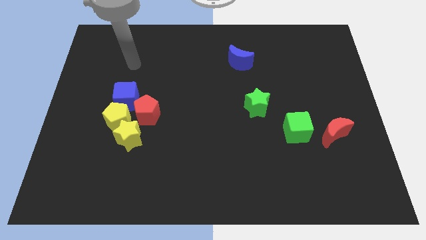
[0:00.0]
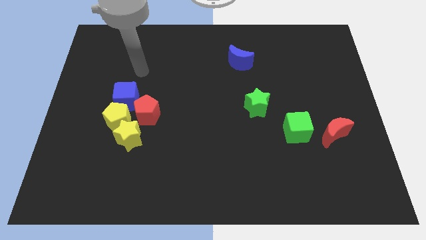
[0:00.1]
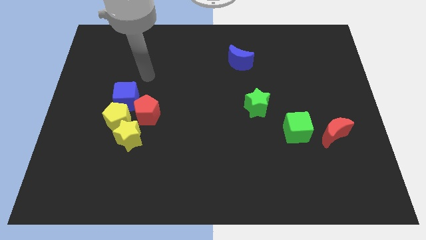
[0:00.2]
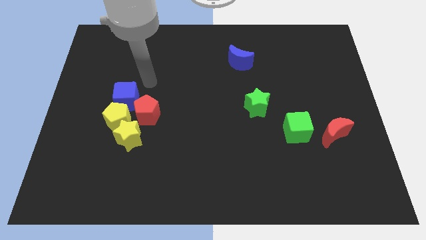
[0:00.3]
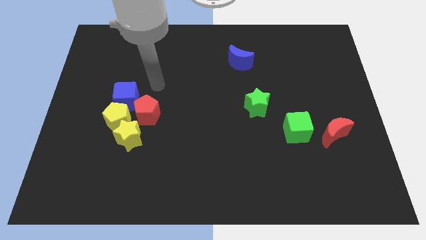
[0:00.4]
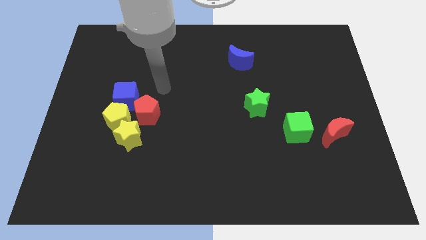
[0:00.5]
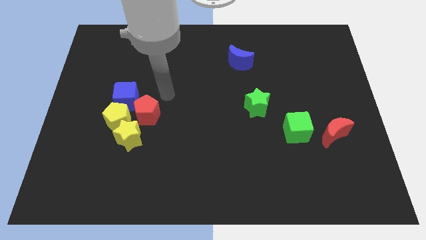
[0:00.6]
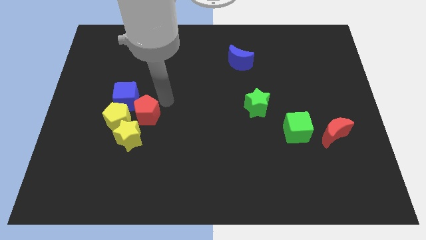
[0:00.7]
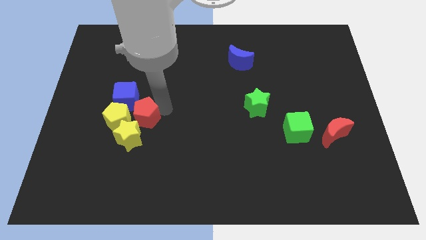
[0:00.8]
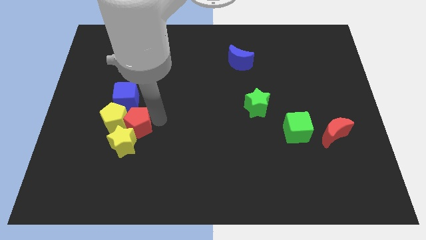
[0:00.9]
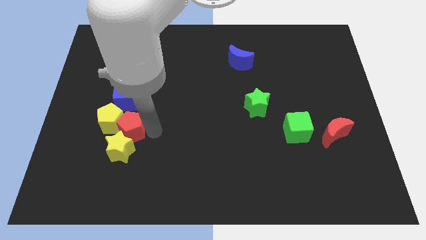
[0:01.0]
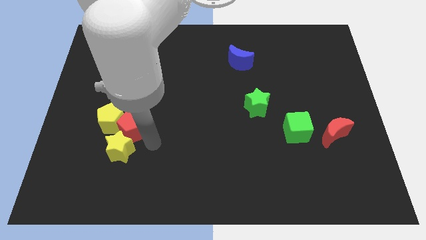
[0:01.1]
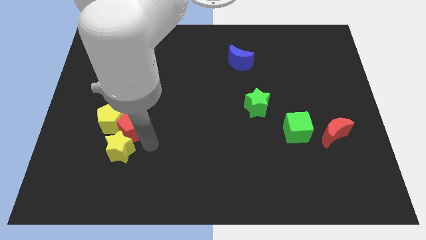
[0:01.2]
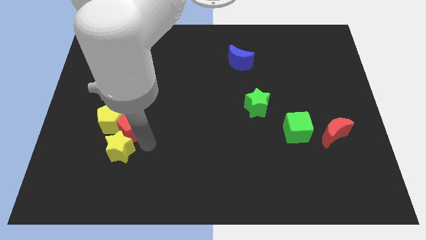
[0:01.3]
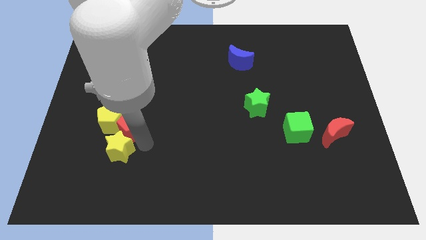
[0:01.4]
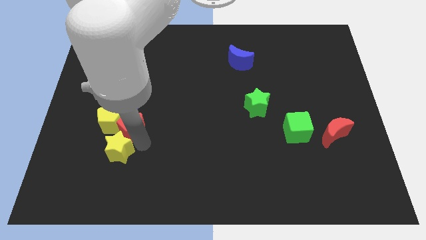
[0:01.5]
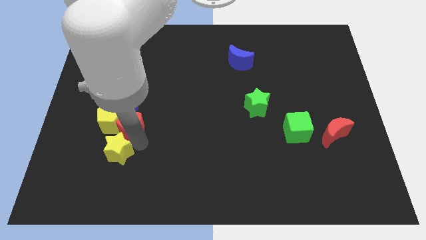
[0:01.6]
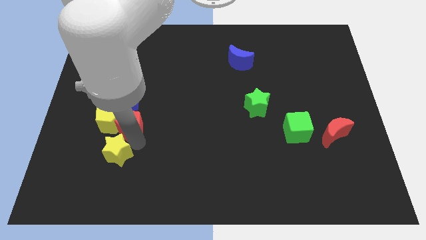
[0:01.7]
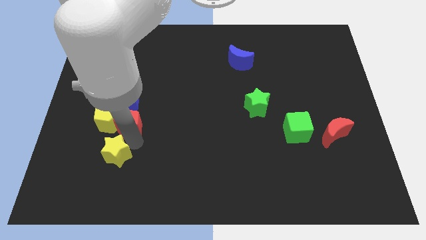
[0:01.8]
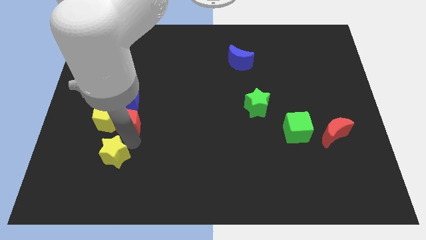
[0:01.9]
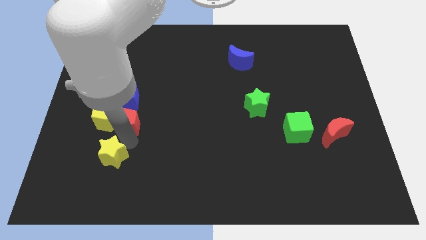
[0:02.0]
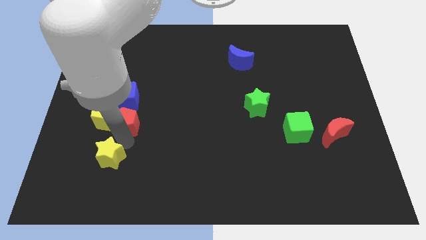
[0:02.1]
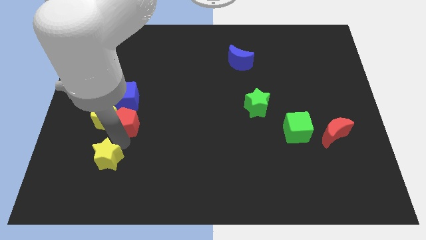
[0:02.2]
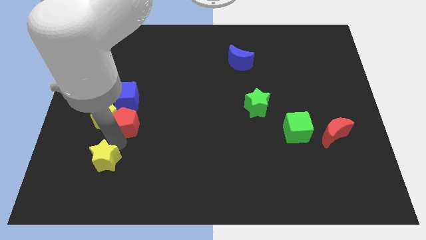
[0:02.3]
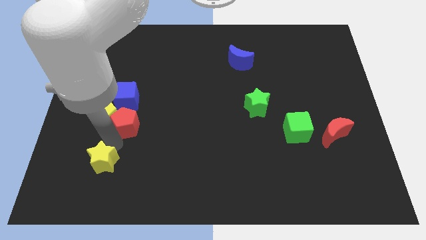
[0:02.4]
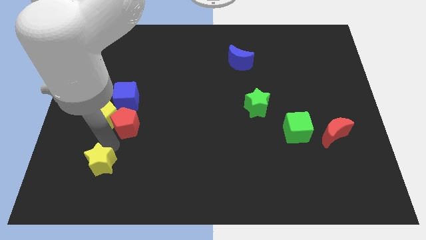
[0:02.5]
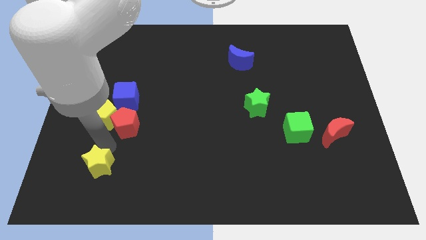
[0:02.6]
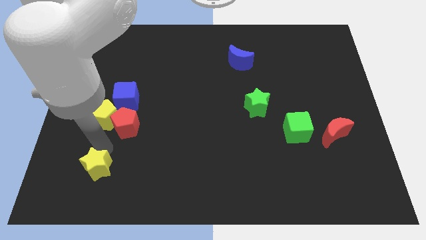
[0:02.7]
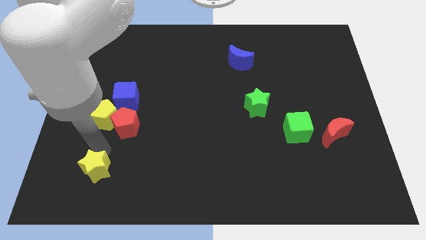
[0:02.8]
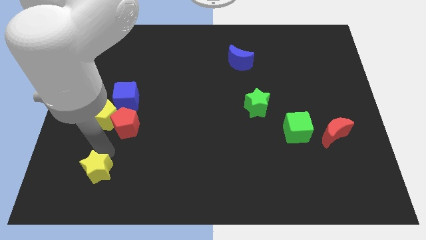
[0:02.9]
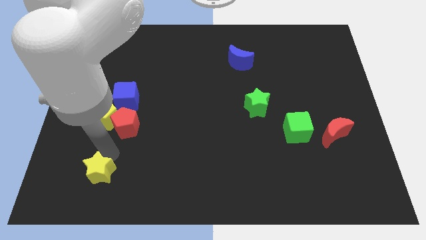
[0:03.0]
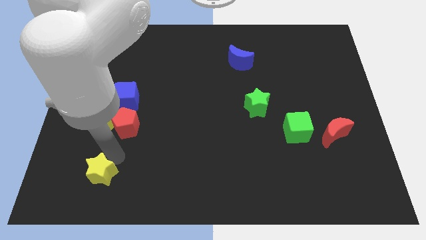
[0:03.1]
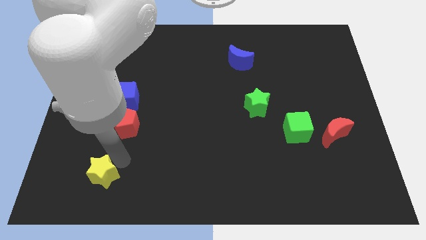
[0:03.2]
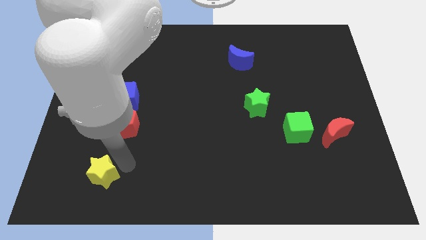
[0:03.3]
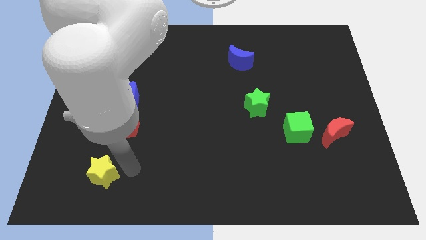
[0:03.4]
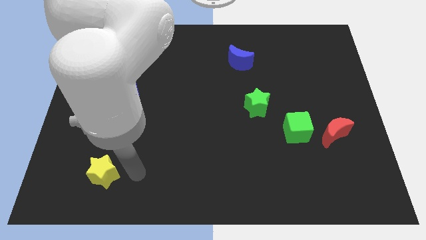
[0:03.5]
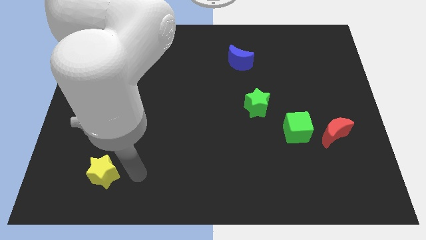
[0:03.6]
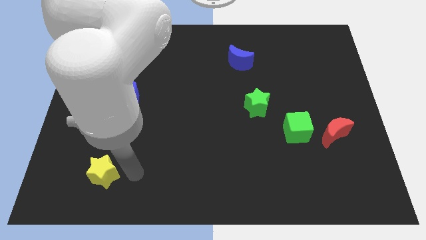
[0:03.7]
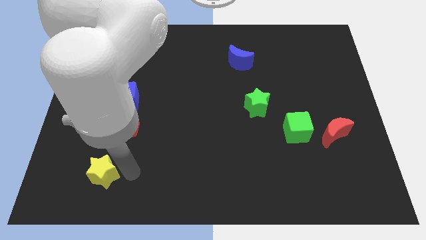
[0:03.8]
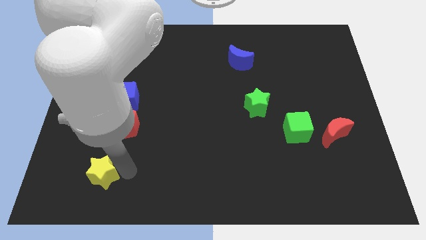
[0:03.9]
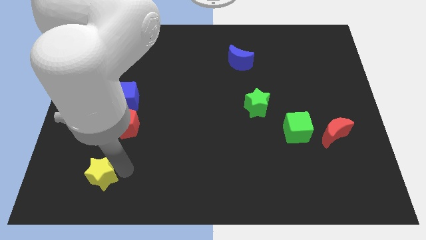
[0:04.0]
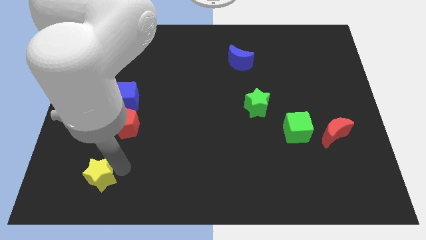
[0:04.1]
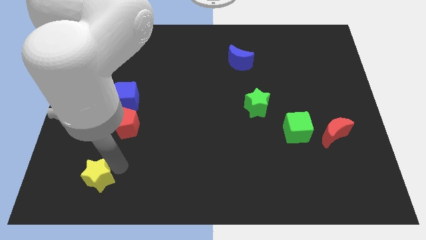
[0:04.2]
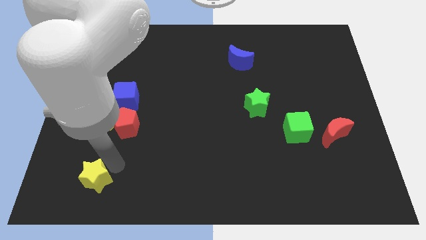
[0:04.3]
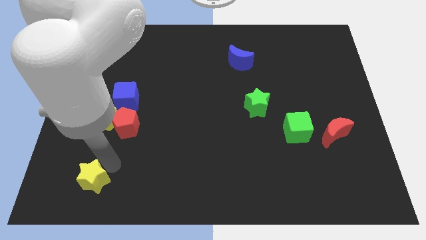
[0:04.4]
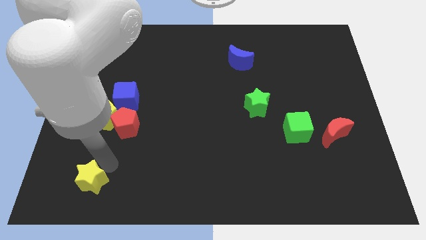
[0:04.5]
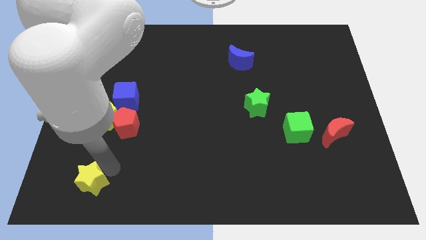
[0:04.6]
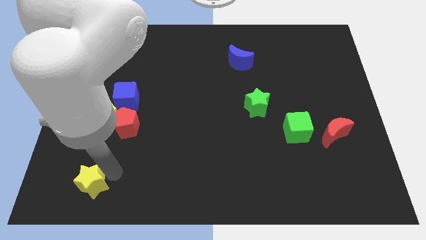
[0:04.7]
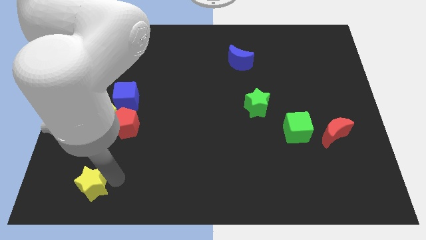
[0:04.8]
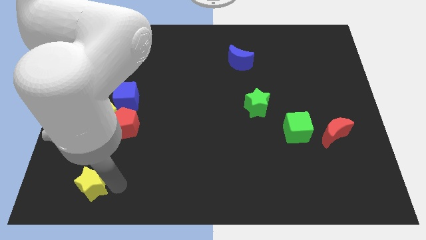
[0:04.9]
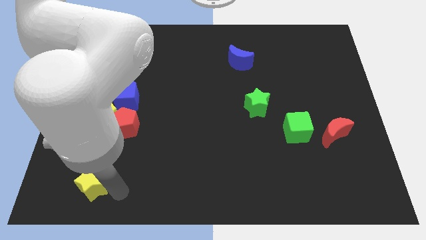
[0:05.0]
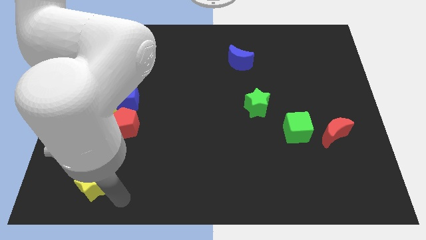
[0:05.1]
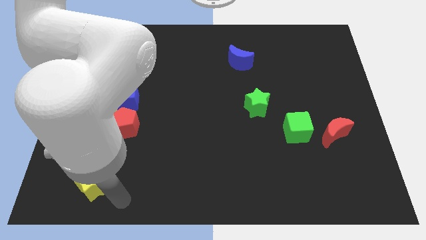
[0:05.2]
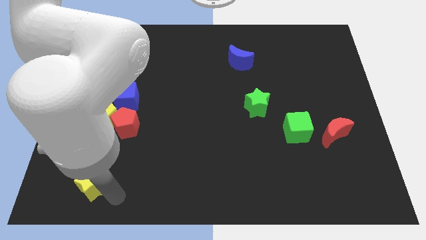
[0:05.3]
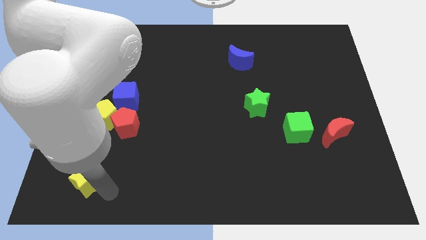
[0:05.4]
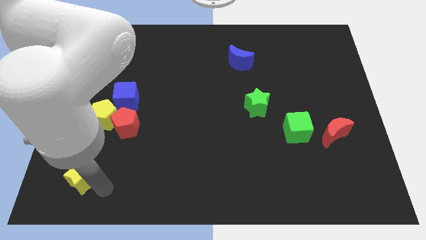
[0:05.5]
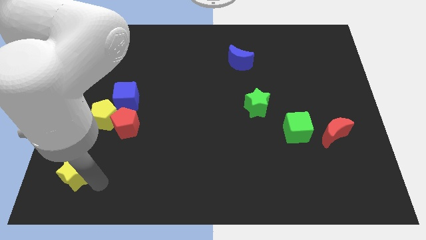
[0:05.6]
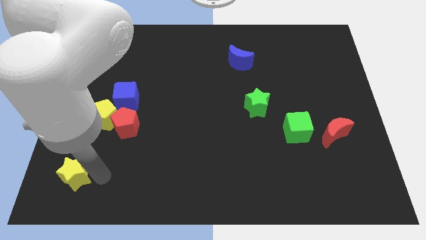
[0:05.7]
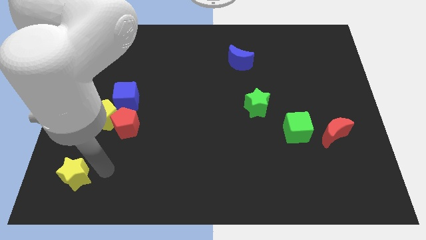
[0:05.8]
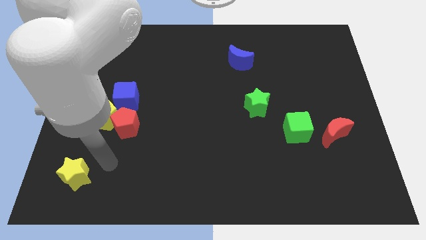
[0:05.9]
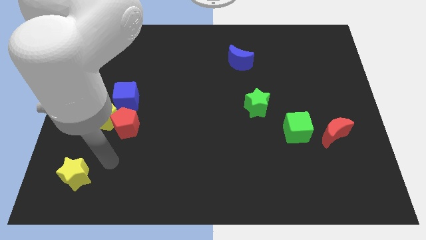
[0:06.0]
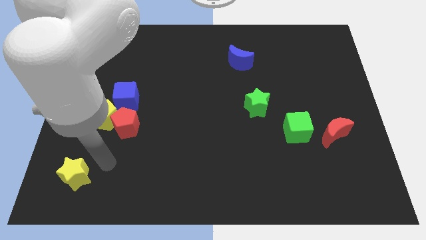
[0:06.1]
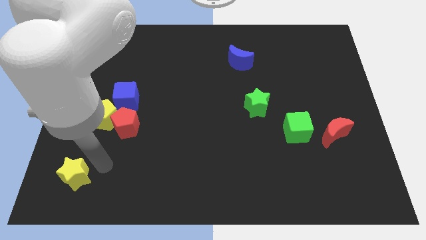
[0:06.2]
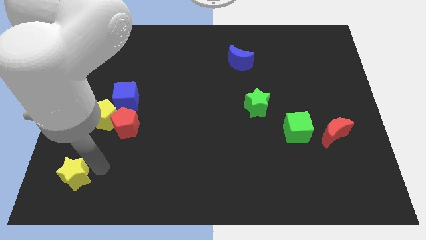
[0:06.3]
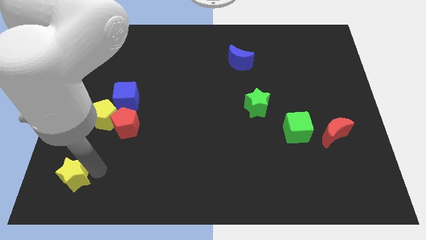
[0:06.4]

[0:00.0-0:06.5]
put the yellow star to the bottom left
